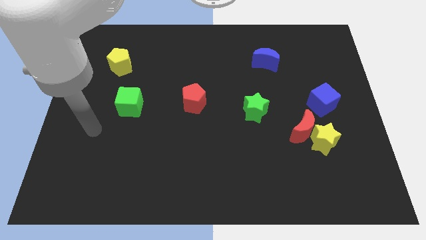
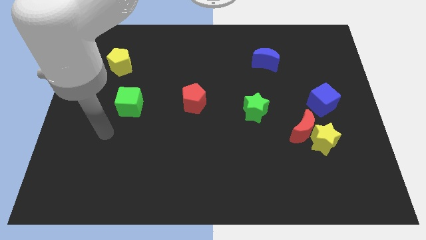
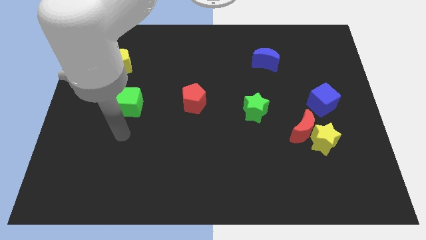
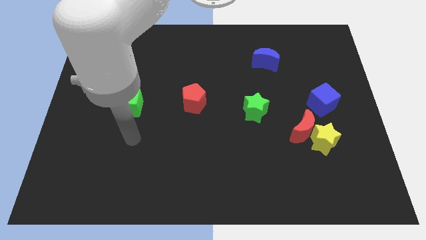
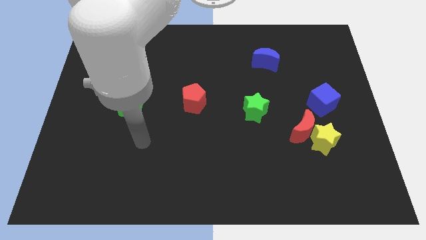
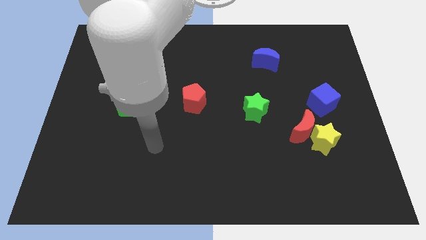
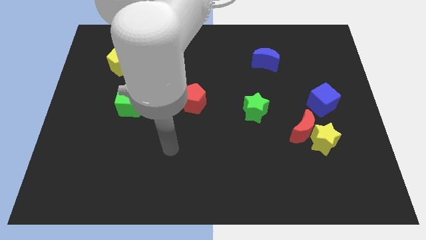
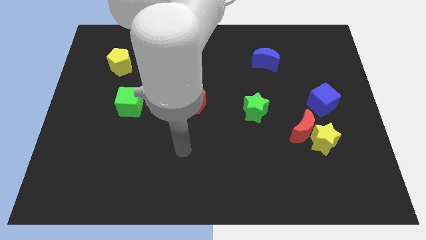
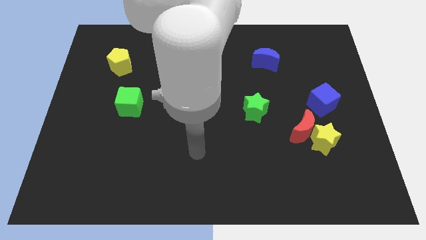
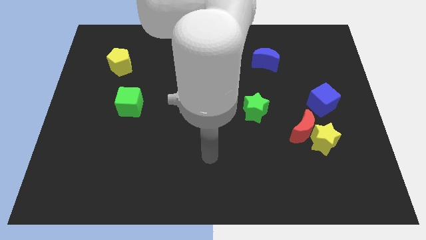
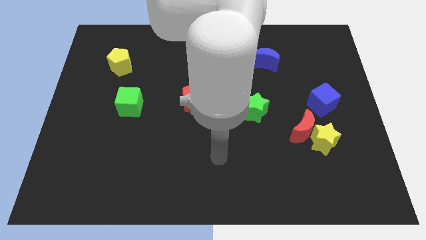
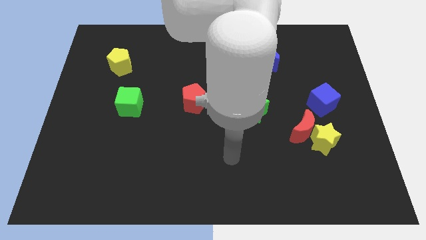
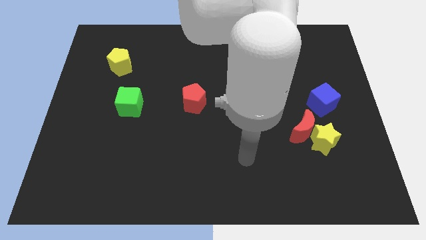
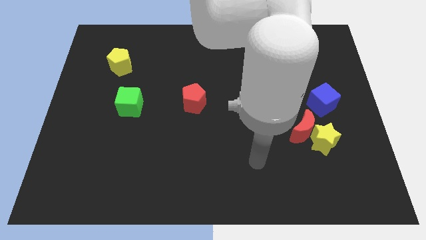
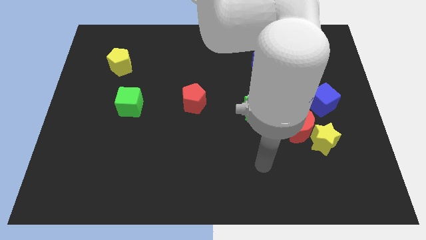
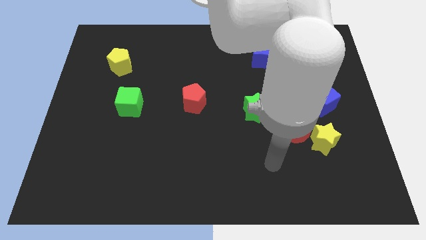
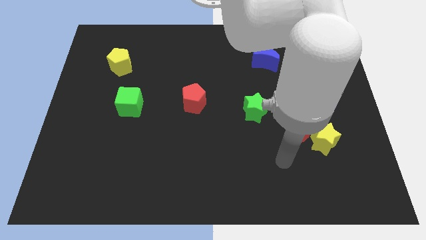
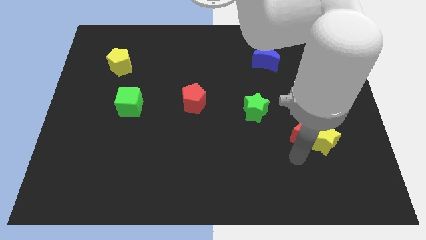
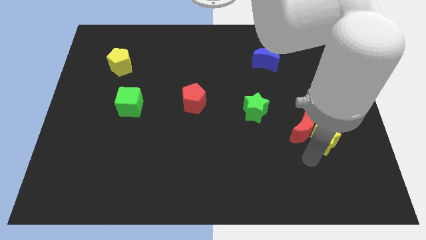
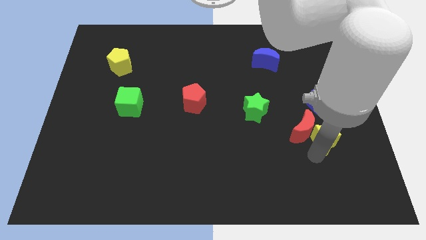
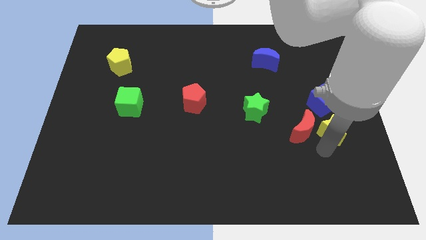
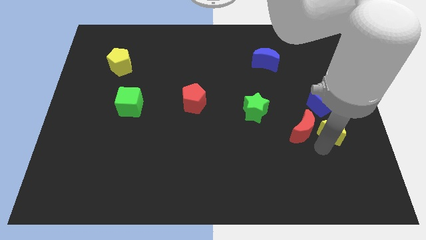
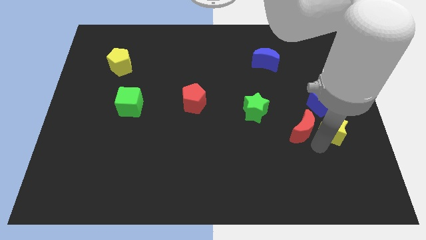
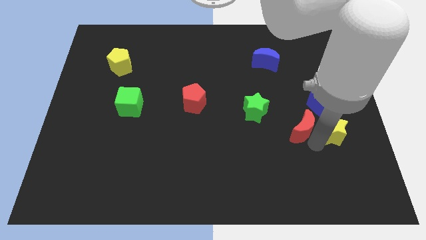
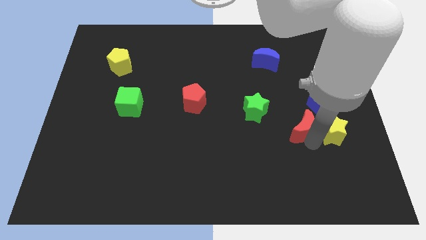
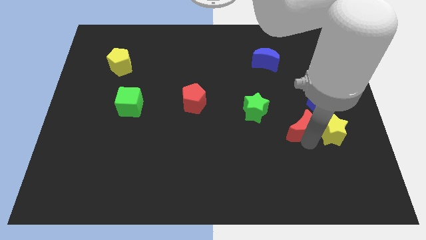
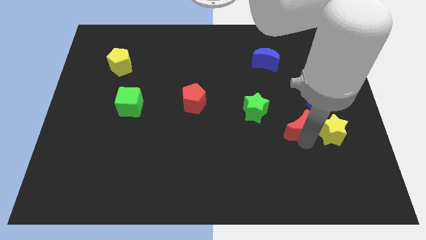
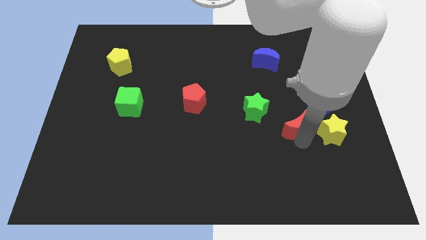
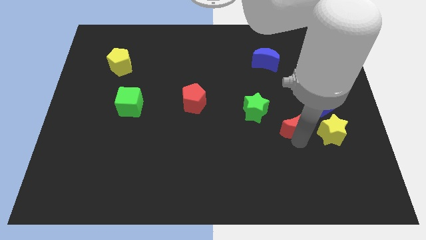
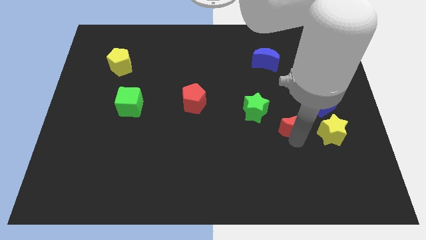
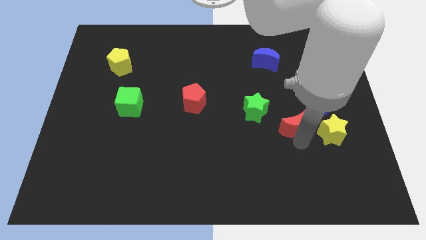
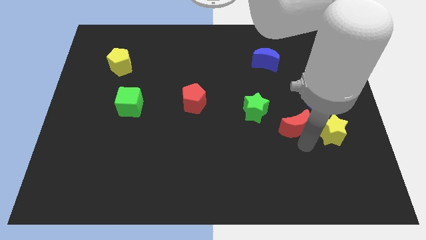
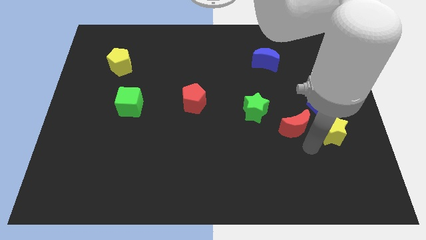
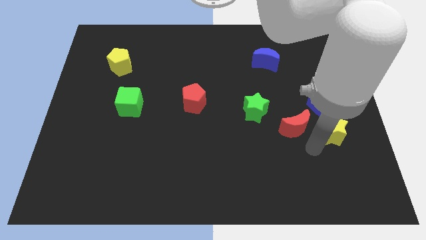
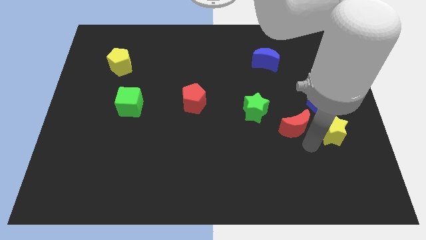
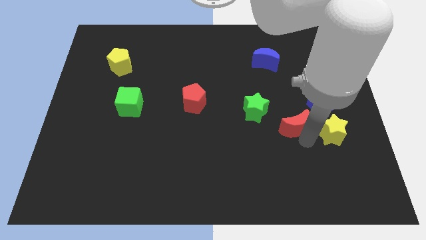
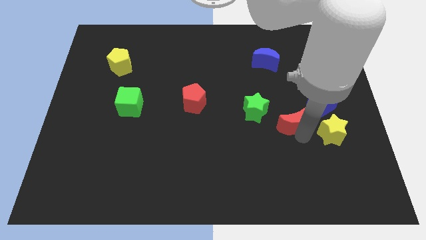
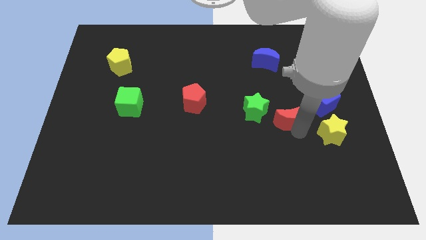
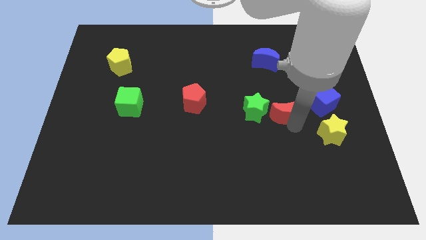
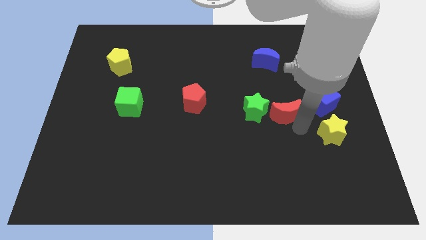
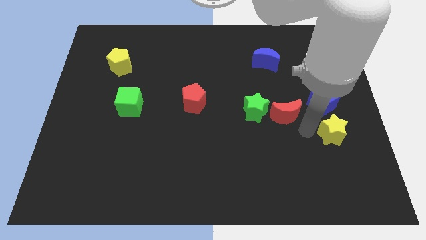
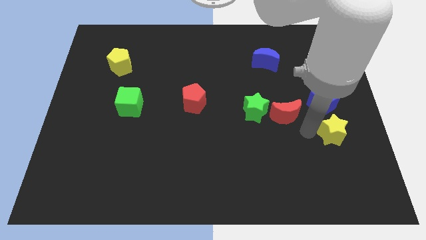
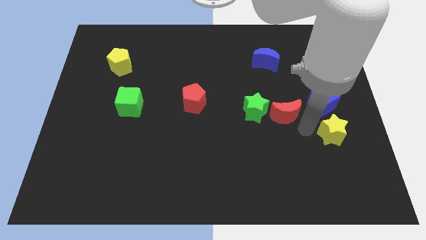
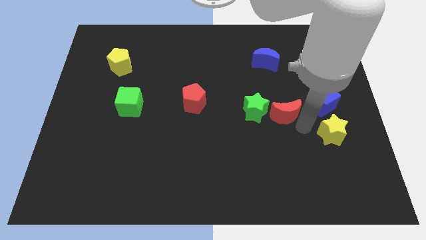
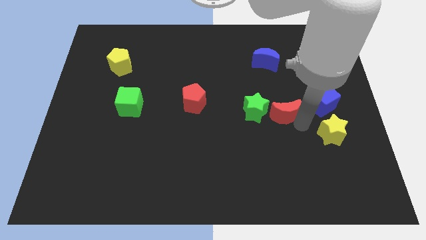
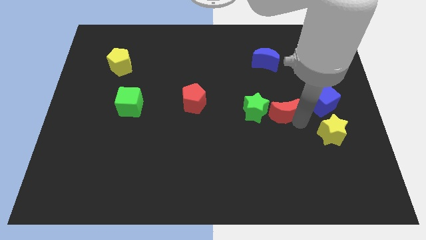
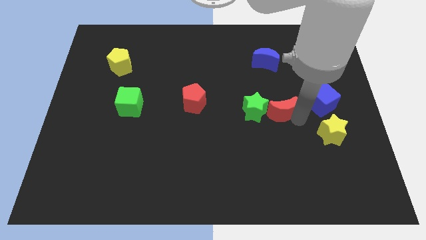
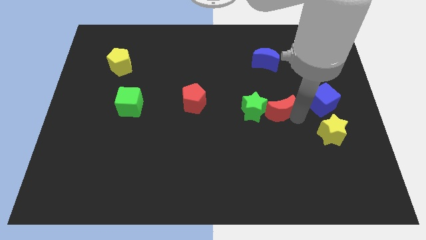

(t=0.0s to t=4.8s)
slide the red moon slightly up and to the left diagonally

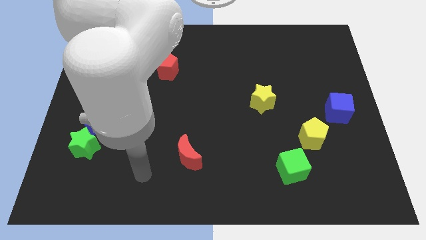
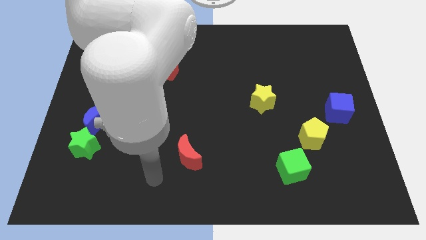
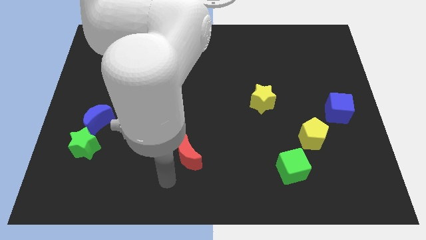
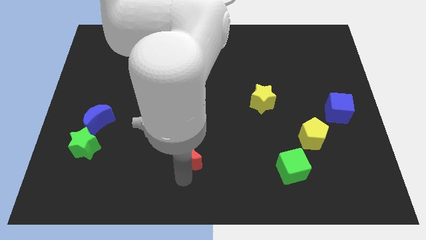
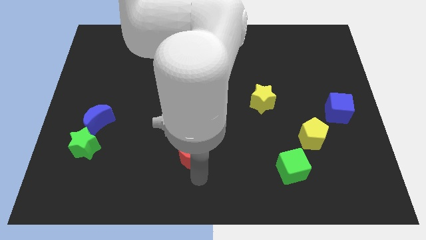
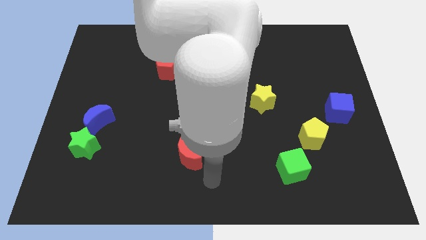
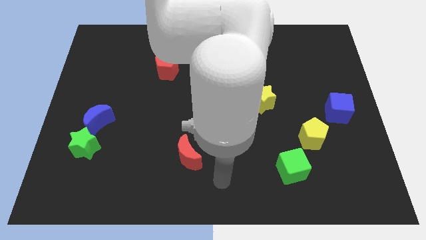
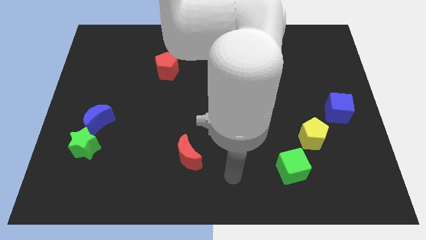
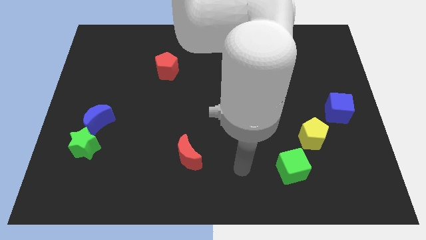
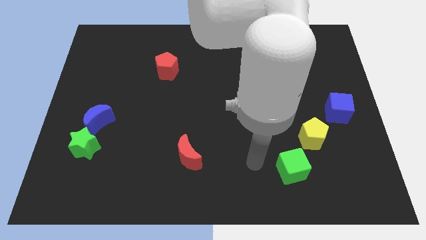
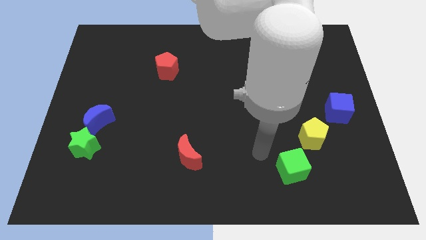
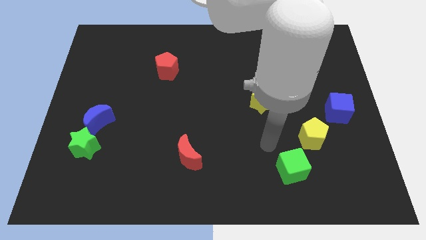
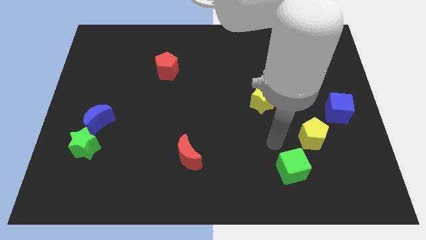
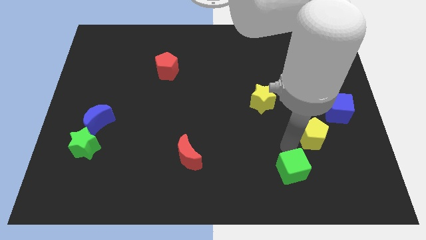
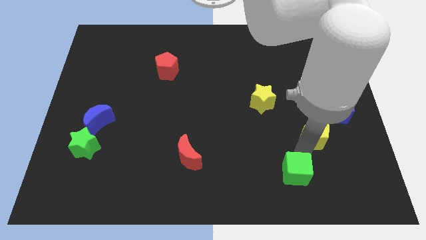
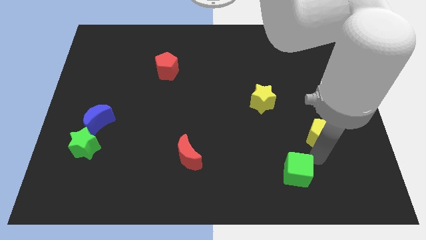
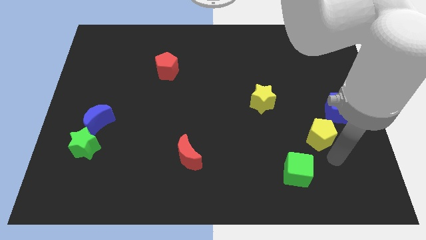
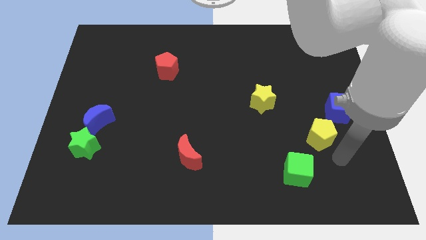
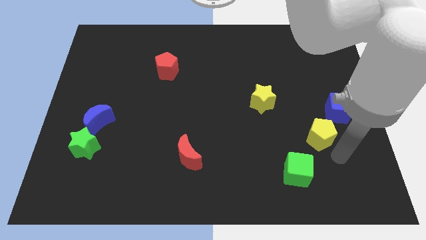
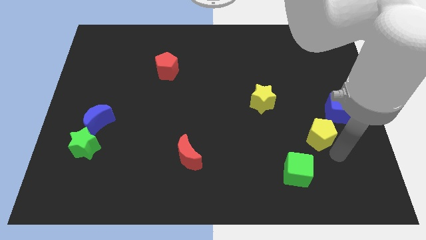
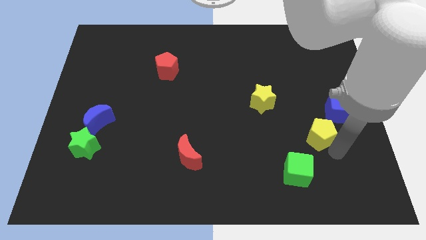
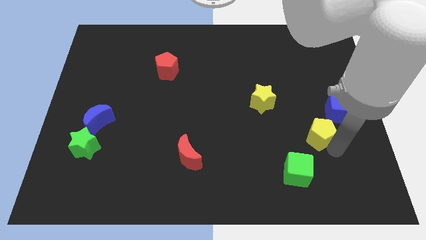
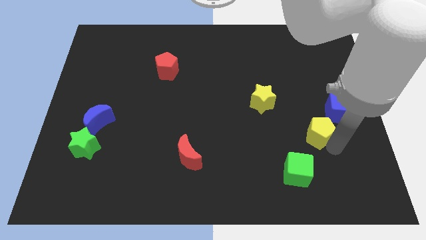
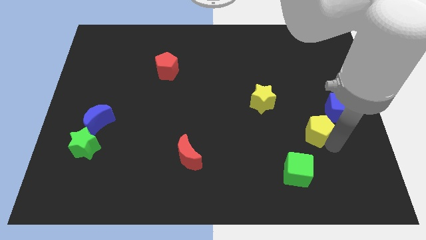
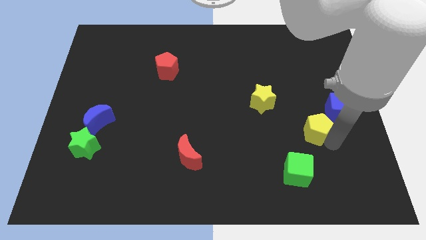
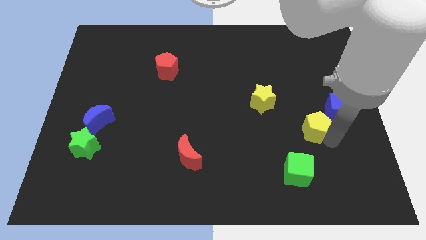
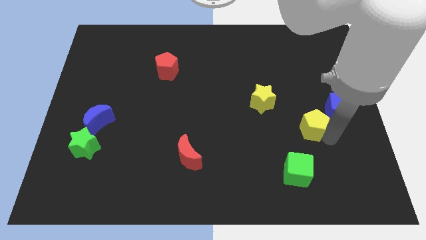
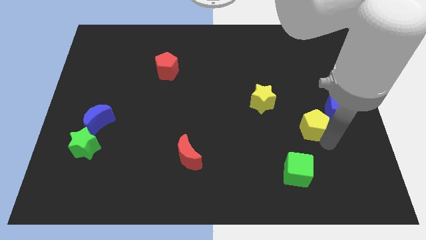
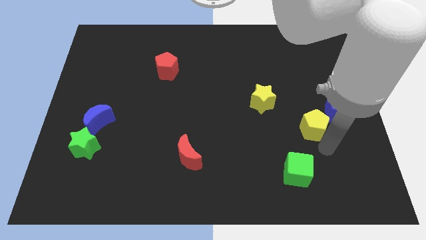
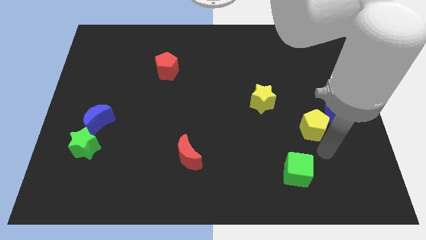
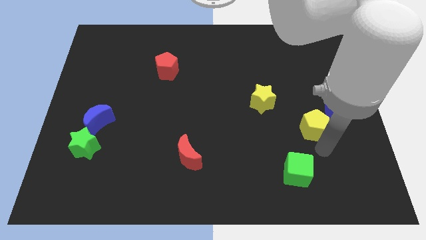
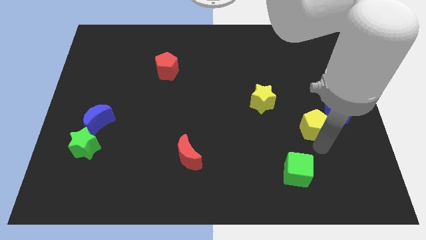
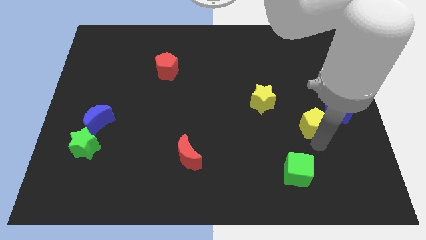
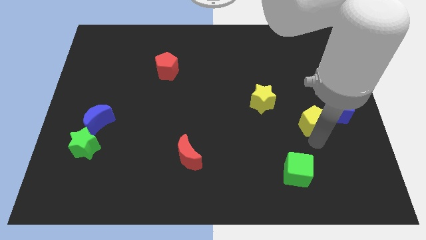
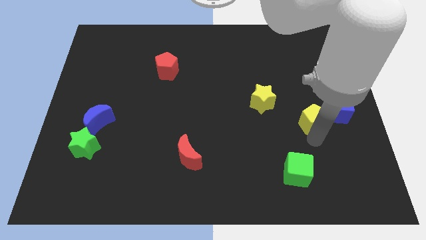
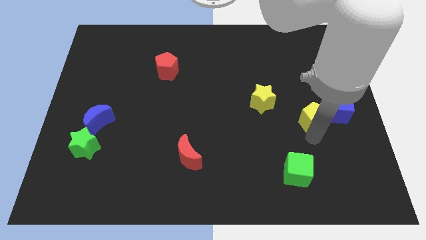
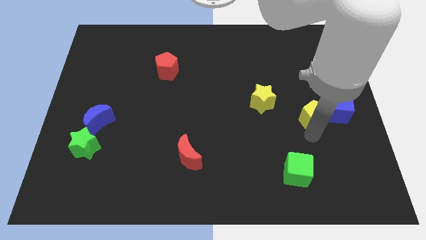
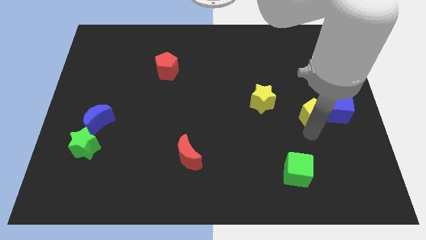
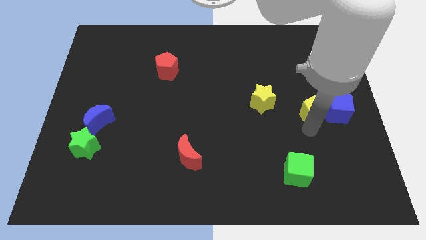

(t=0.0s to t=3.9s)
push the yellow pentagon up a bit
